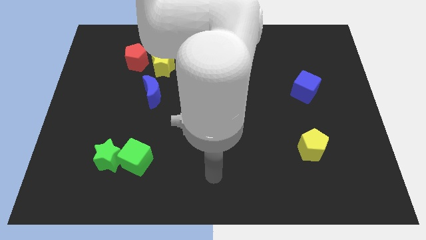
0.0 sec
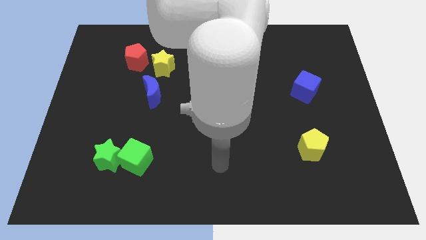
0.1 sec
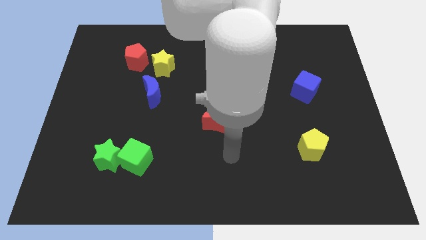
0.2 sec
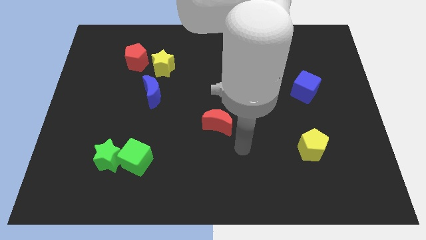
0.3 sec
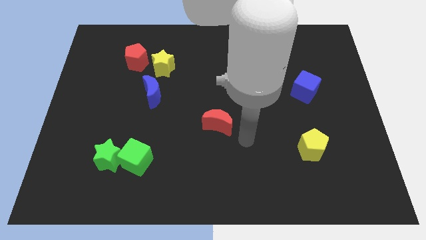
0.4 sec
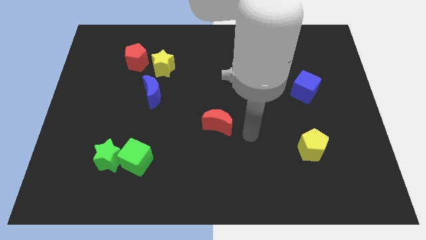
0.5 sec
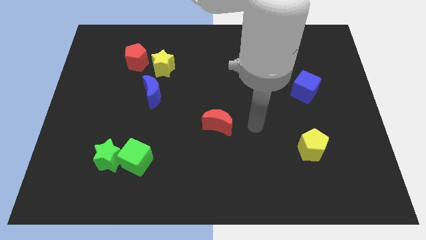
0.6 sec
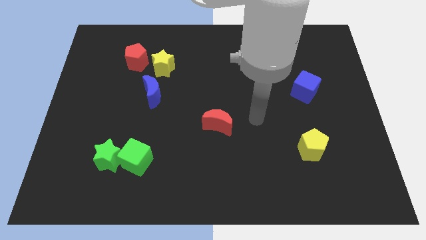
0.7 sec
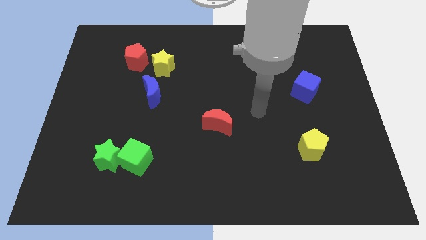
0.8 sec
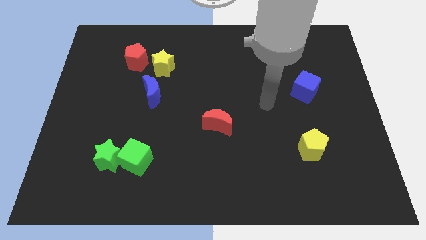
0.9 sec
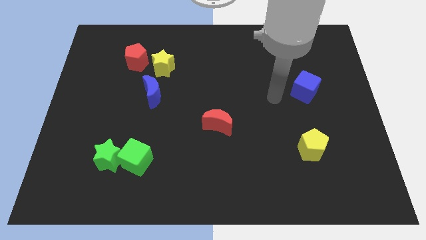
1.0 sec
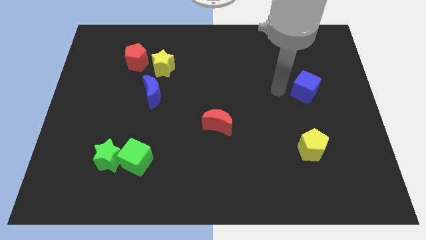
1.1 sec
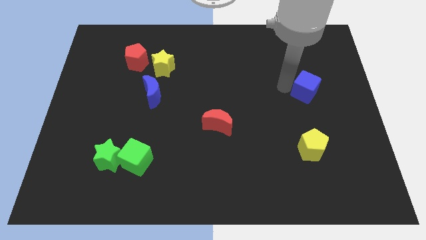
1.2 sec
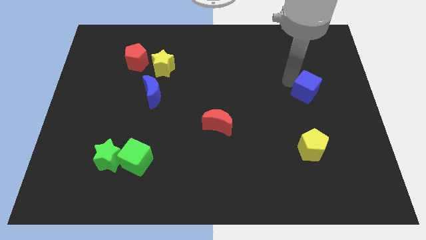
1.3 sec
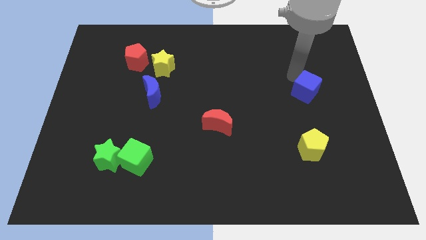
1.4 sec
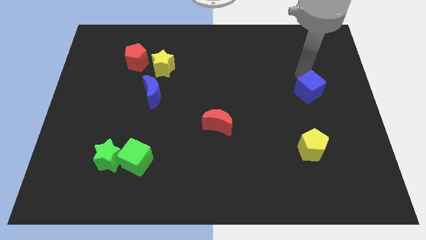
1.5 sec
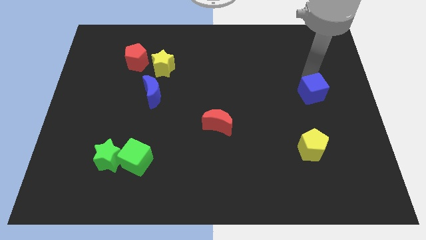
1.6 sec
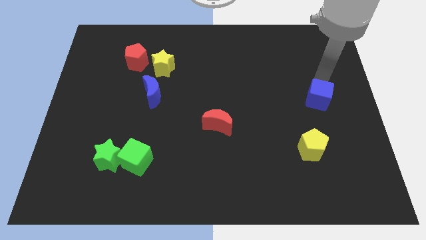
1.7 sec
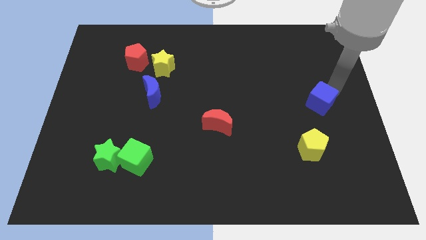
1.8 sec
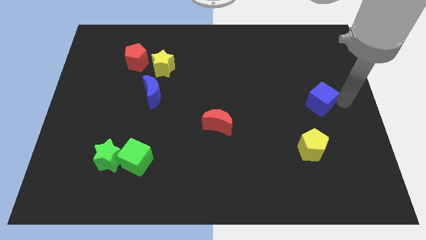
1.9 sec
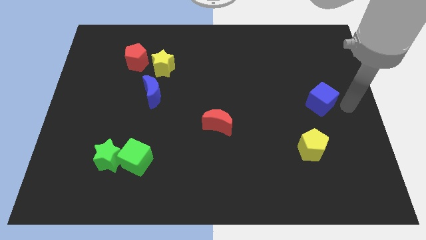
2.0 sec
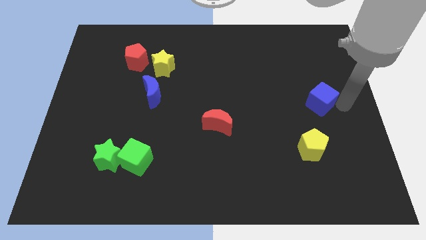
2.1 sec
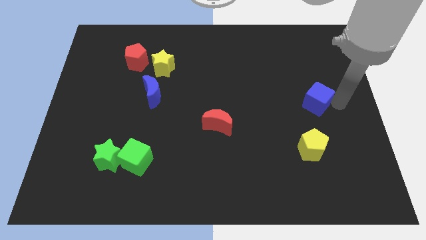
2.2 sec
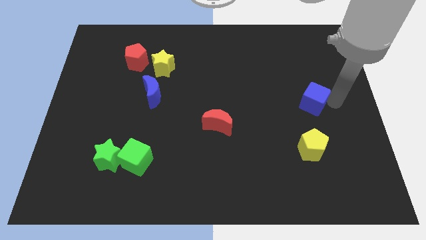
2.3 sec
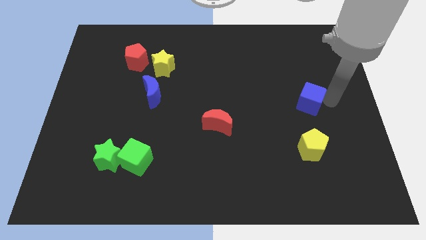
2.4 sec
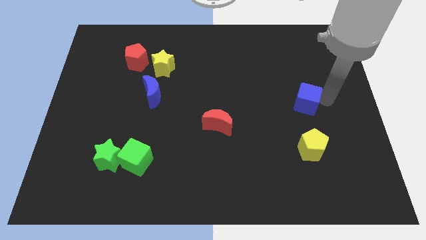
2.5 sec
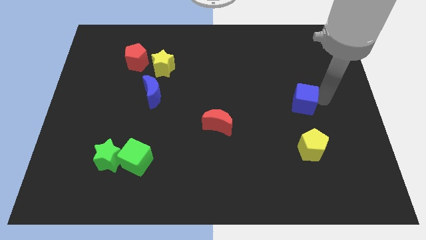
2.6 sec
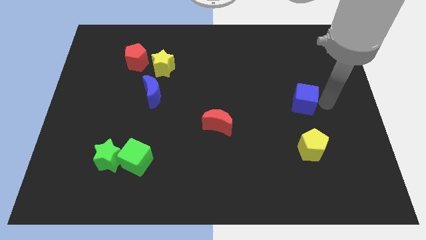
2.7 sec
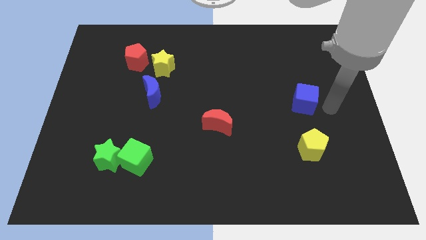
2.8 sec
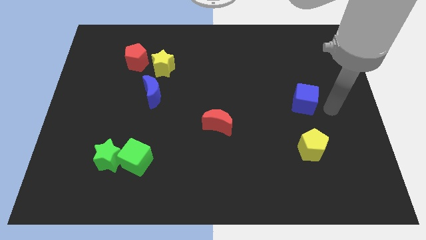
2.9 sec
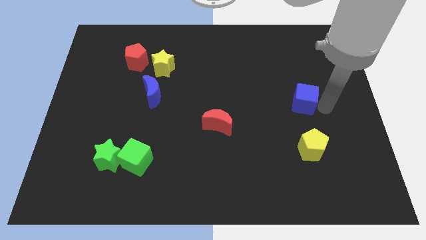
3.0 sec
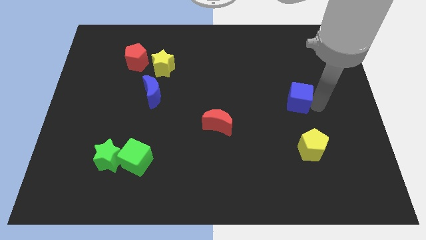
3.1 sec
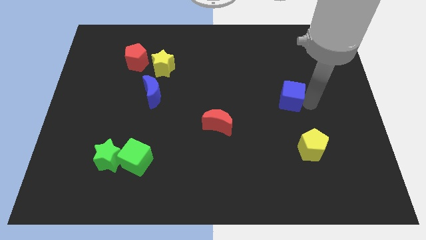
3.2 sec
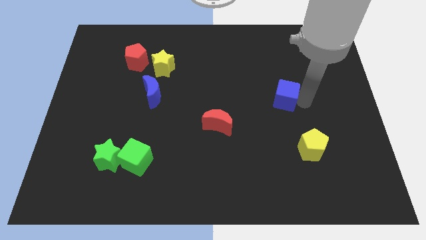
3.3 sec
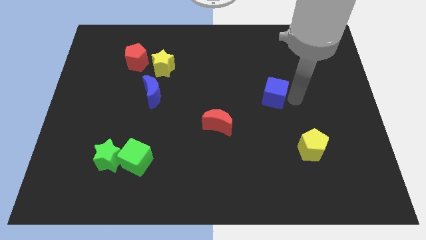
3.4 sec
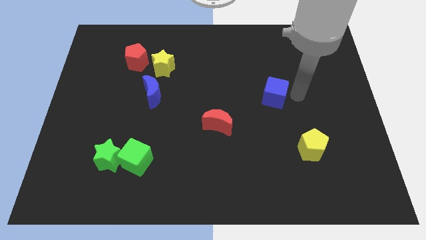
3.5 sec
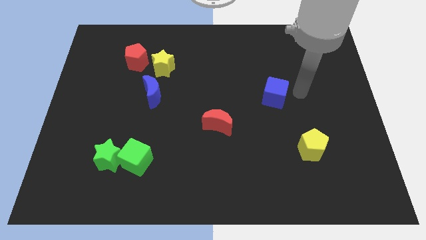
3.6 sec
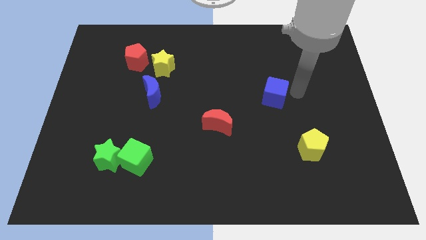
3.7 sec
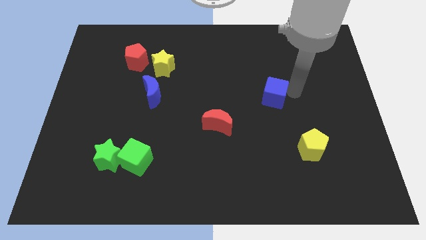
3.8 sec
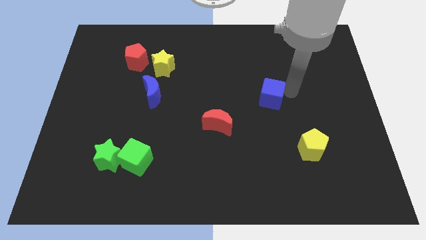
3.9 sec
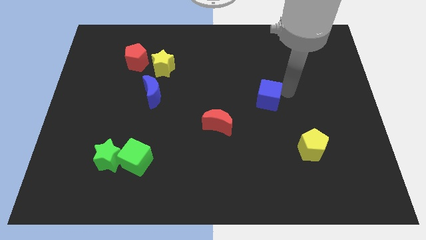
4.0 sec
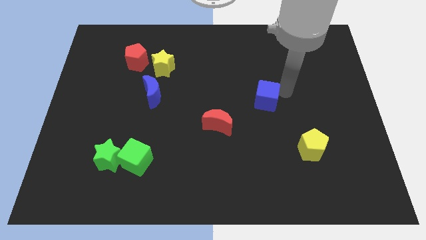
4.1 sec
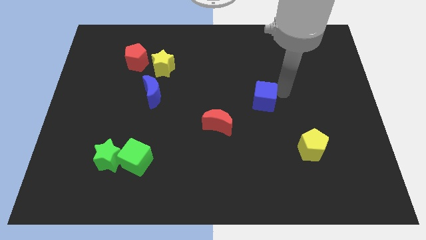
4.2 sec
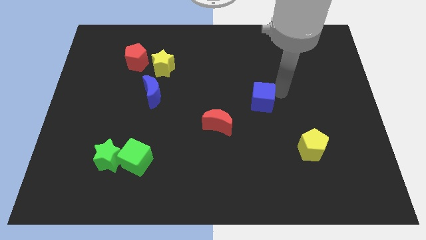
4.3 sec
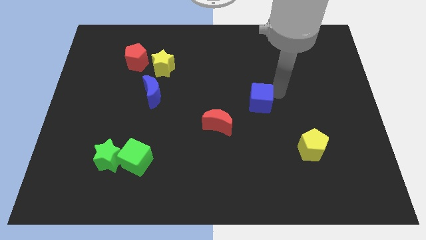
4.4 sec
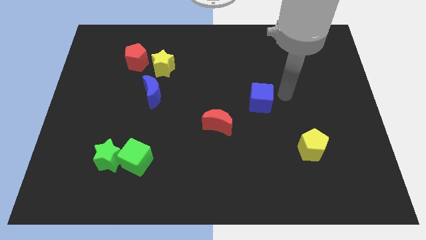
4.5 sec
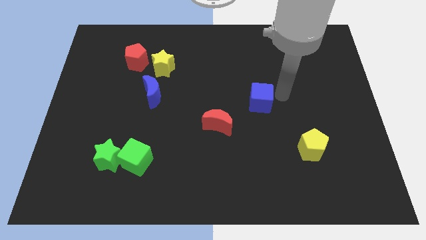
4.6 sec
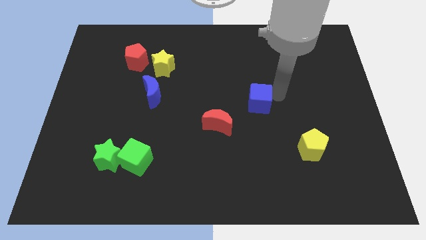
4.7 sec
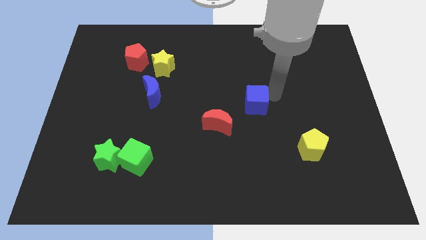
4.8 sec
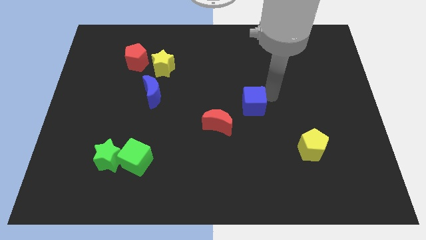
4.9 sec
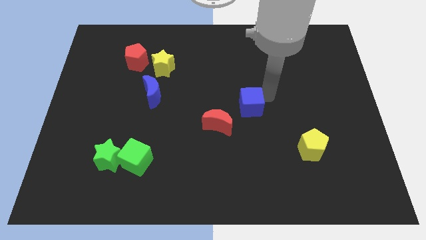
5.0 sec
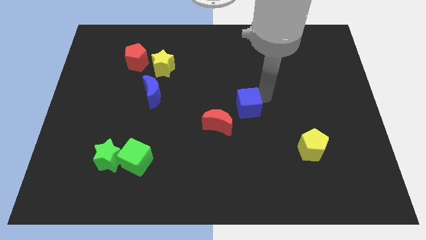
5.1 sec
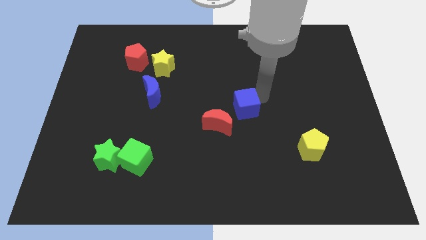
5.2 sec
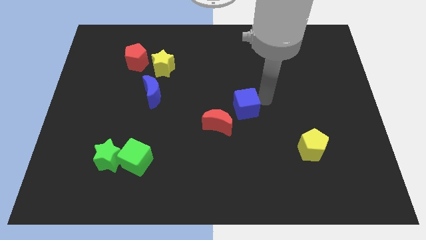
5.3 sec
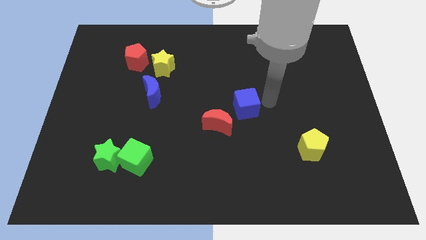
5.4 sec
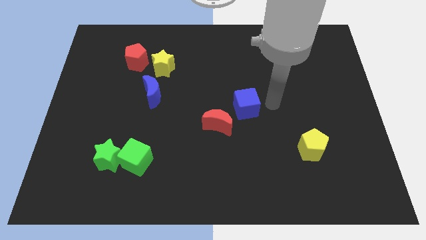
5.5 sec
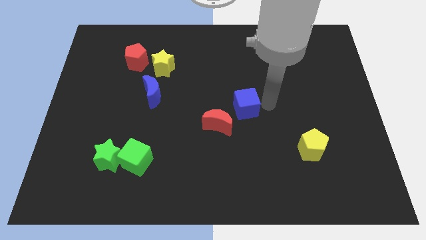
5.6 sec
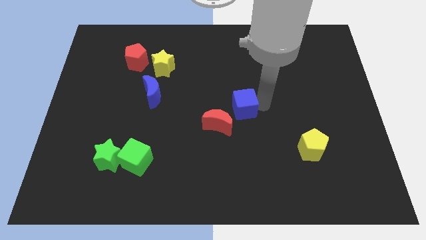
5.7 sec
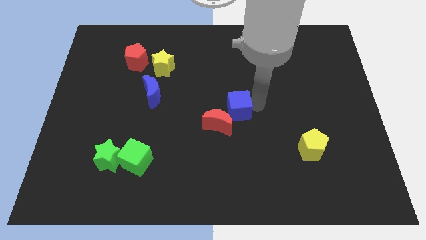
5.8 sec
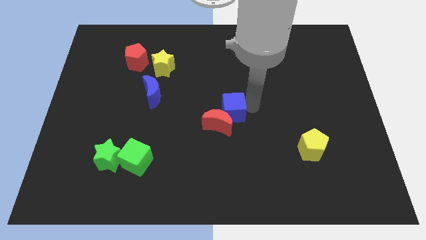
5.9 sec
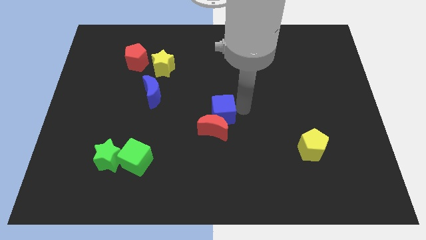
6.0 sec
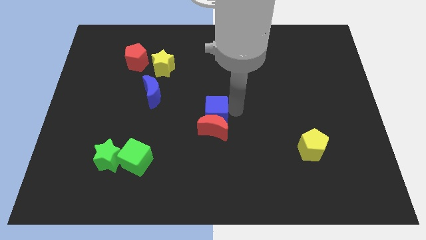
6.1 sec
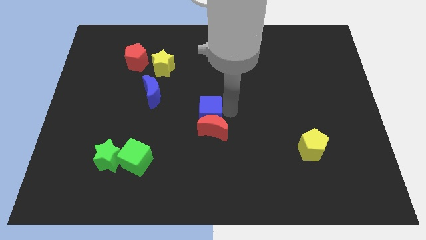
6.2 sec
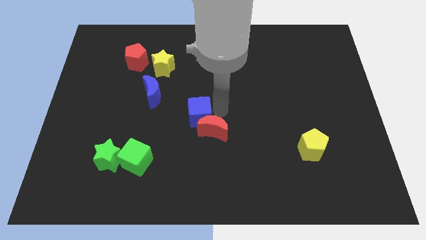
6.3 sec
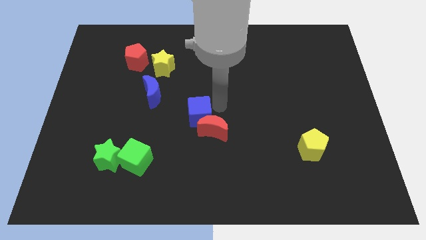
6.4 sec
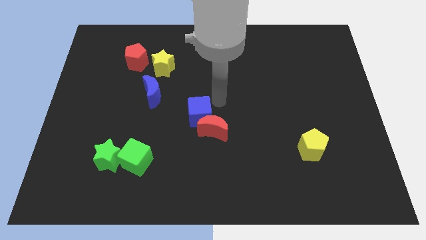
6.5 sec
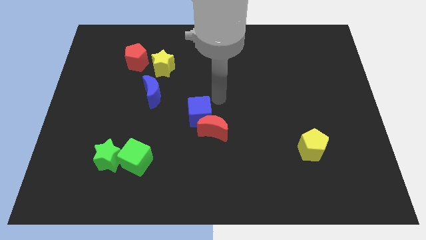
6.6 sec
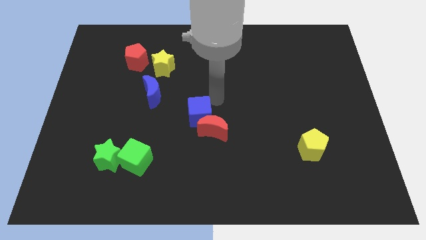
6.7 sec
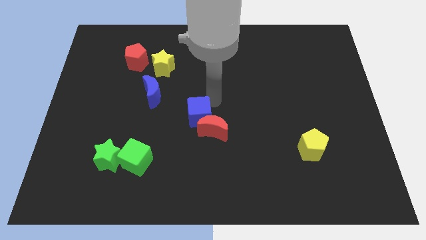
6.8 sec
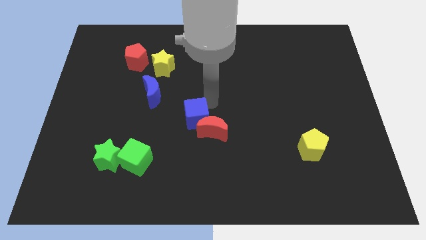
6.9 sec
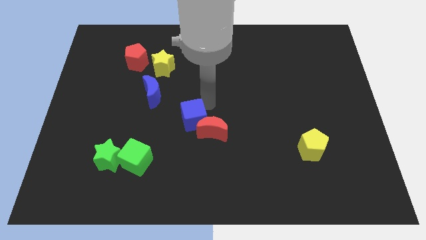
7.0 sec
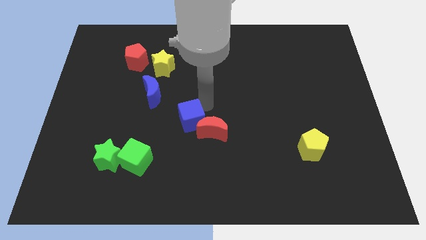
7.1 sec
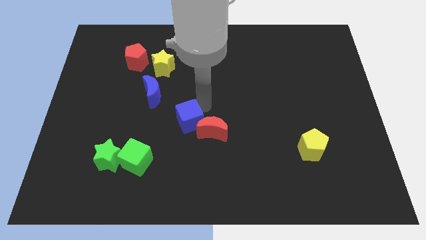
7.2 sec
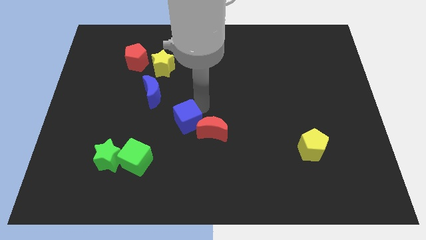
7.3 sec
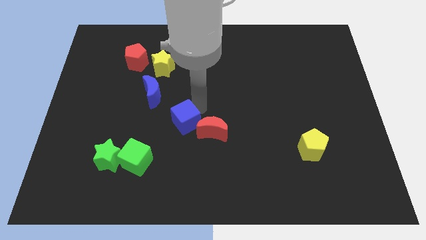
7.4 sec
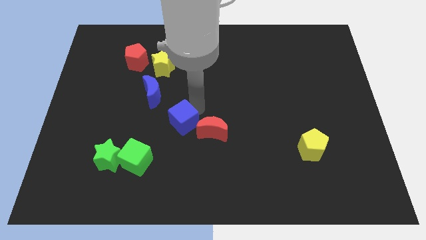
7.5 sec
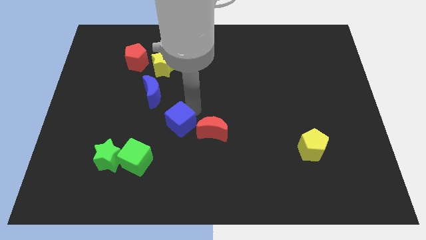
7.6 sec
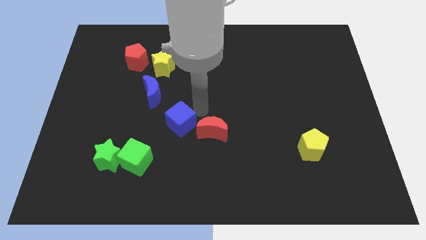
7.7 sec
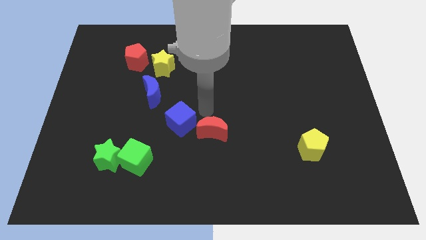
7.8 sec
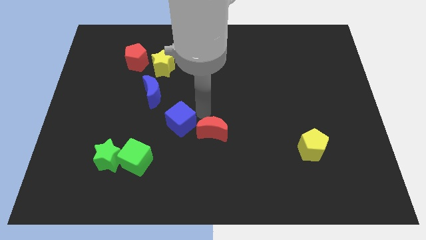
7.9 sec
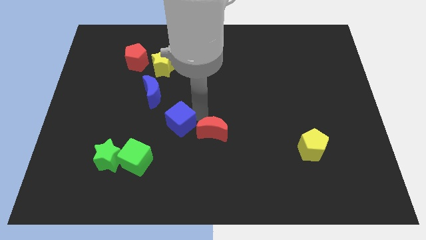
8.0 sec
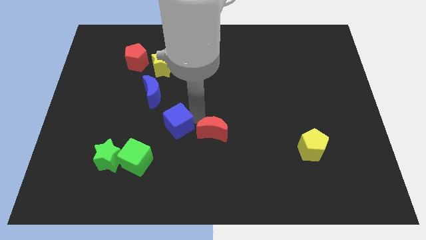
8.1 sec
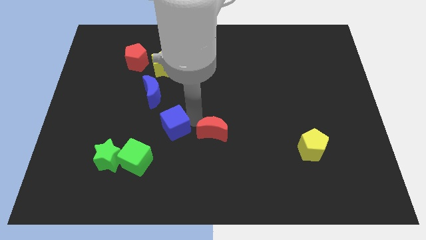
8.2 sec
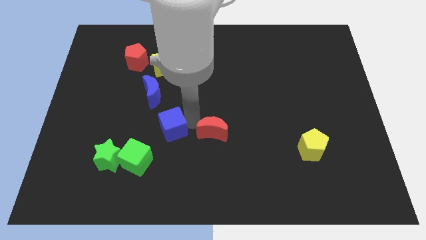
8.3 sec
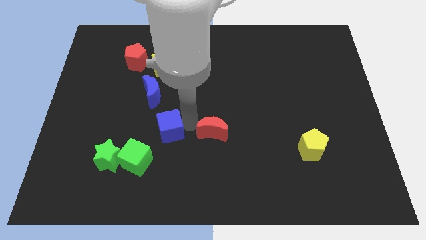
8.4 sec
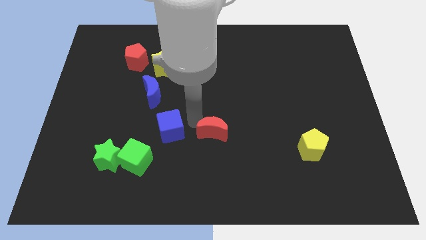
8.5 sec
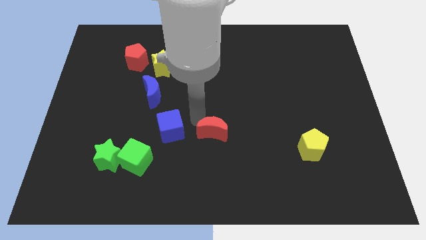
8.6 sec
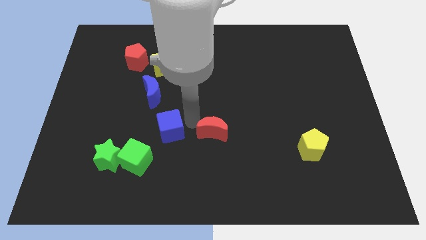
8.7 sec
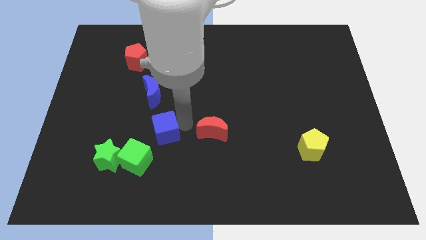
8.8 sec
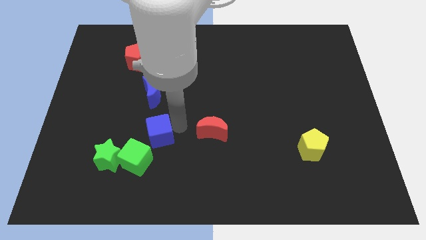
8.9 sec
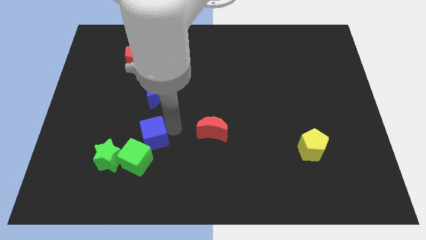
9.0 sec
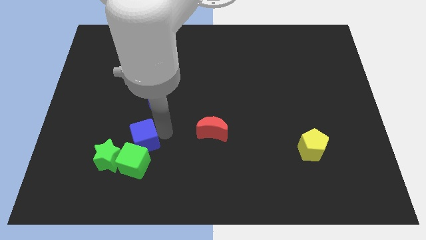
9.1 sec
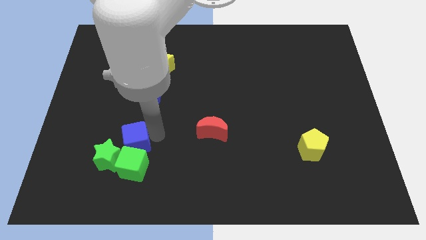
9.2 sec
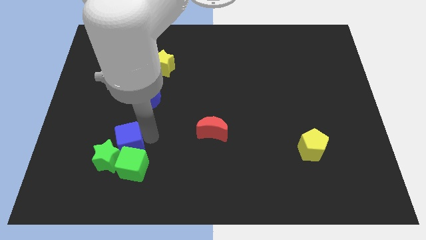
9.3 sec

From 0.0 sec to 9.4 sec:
move the blue cube to the green star
